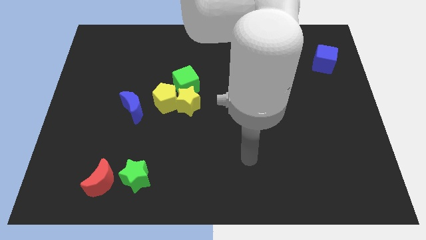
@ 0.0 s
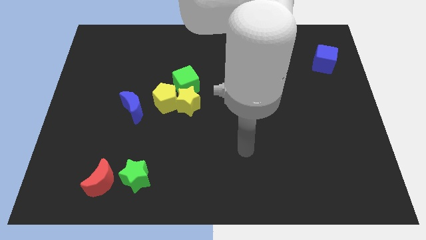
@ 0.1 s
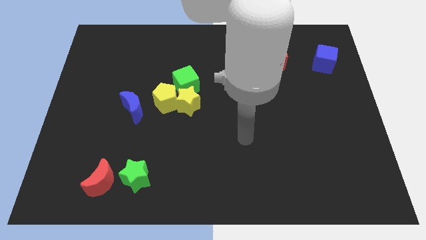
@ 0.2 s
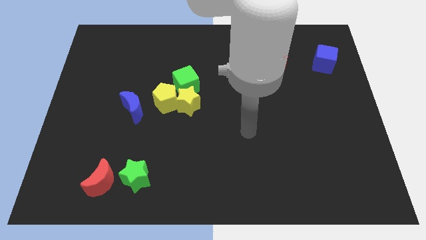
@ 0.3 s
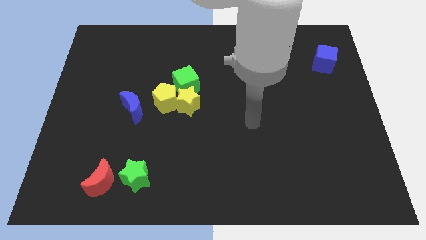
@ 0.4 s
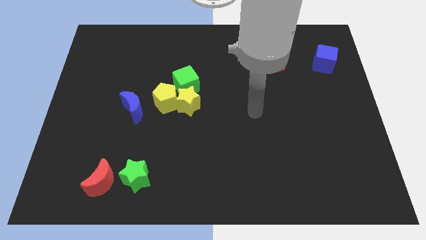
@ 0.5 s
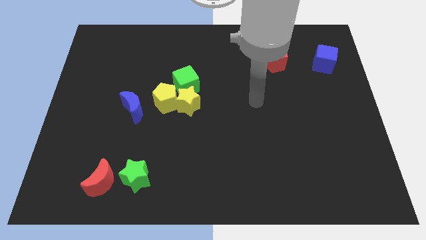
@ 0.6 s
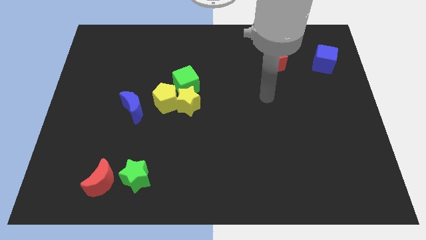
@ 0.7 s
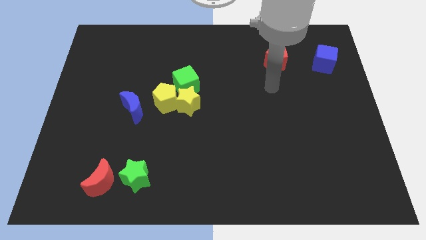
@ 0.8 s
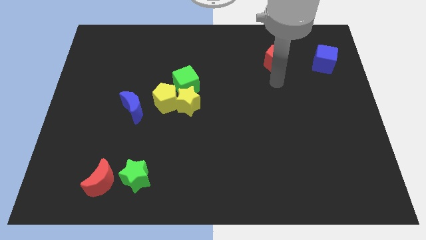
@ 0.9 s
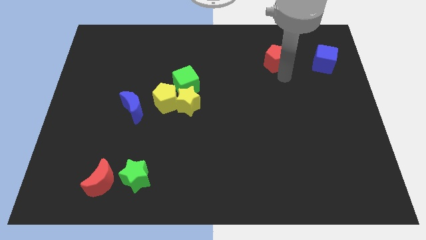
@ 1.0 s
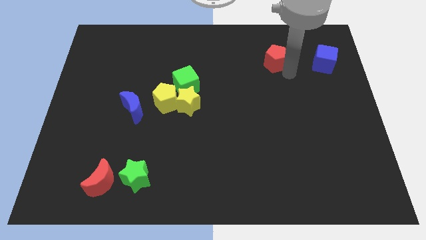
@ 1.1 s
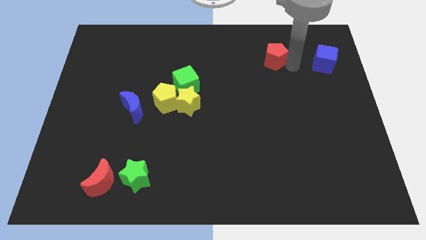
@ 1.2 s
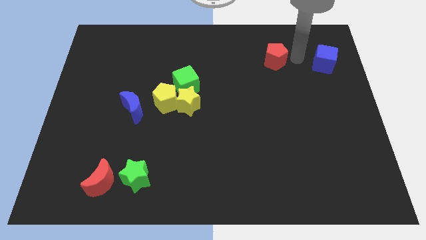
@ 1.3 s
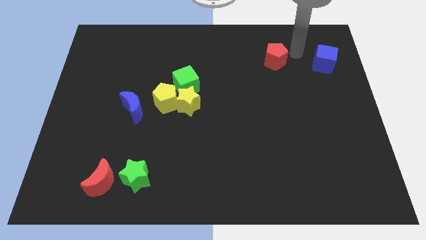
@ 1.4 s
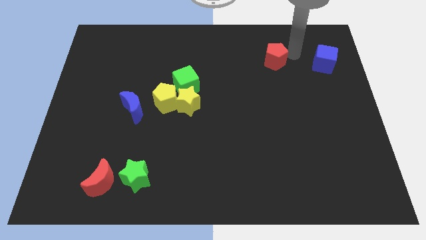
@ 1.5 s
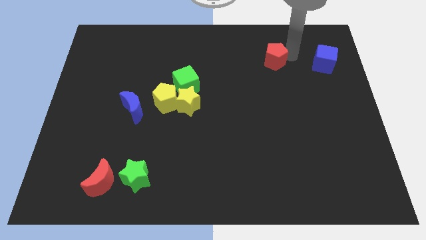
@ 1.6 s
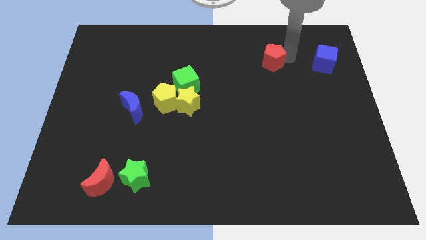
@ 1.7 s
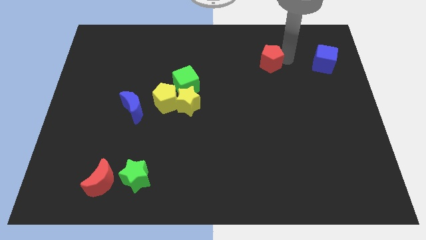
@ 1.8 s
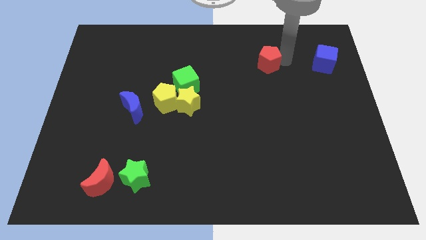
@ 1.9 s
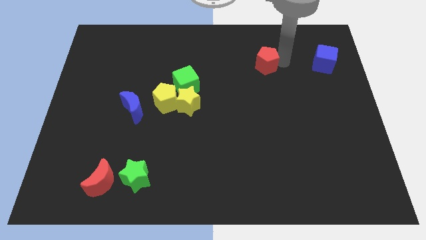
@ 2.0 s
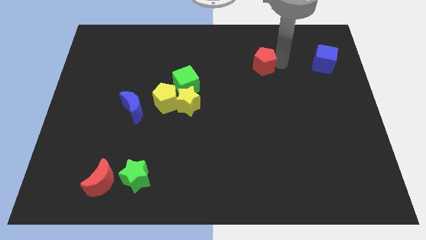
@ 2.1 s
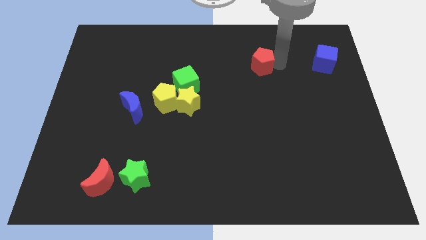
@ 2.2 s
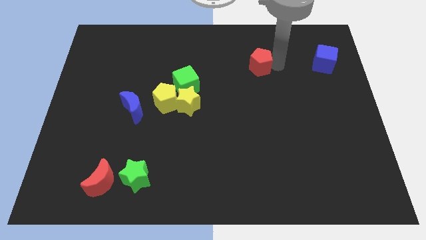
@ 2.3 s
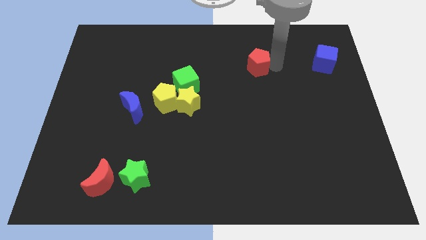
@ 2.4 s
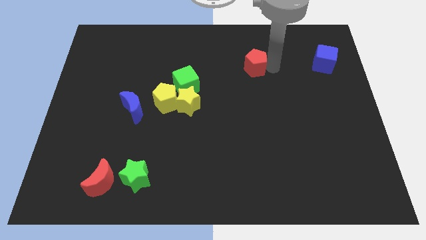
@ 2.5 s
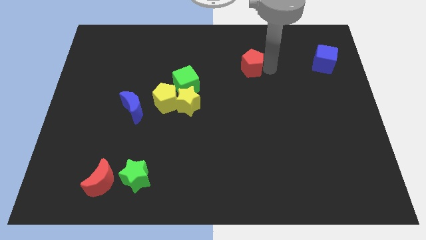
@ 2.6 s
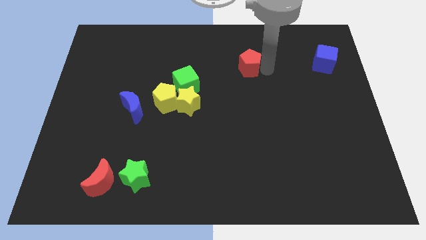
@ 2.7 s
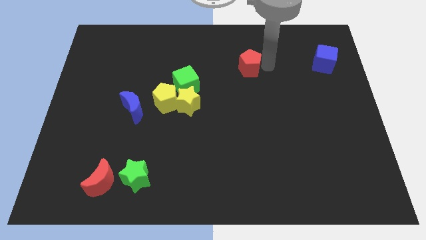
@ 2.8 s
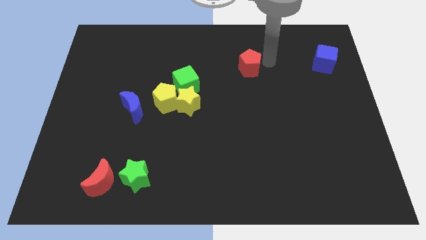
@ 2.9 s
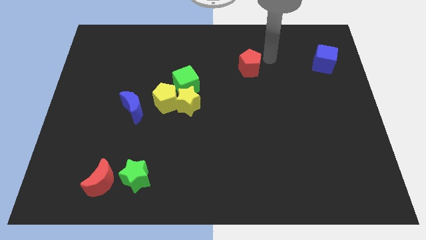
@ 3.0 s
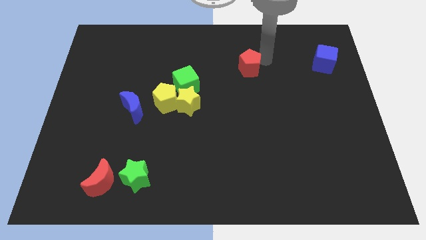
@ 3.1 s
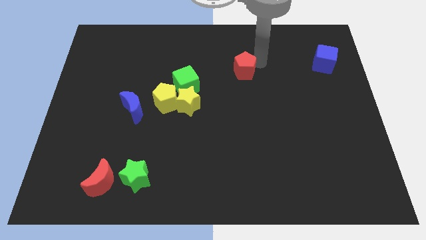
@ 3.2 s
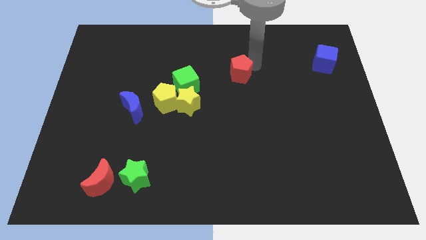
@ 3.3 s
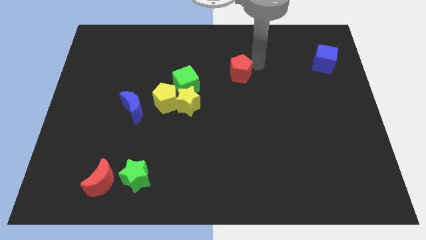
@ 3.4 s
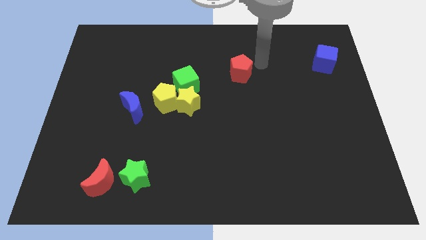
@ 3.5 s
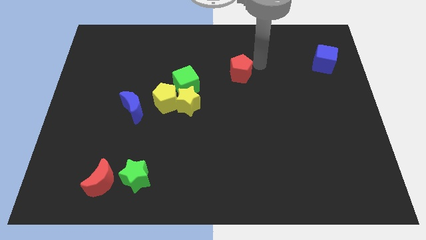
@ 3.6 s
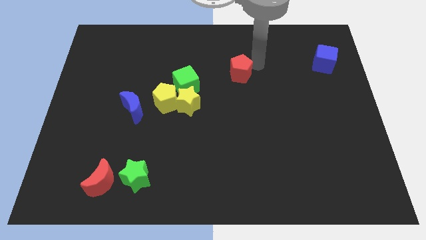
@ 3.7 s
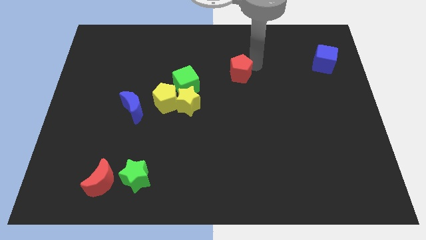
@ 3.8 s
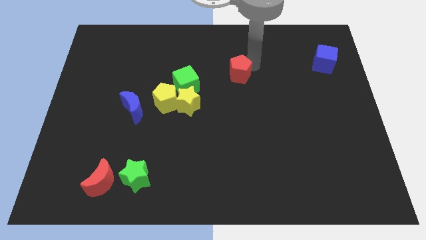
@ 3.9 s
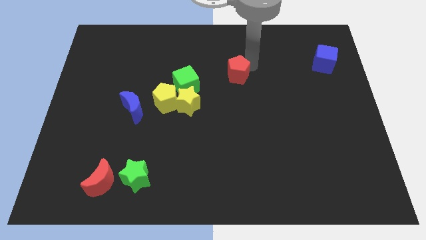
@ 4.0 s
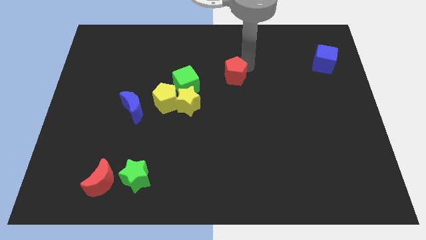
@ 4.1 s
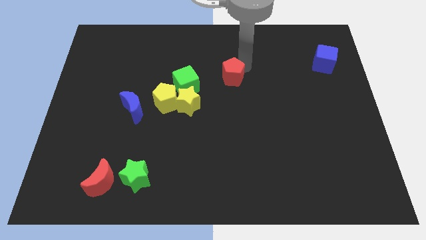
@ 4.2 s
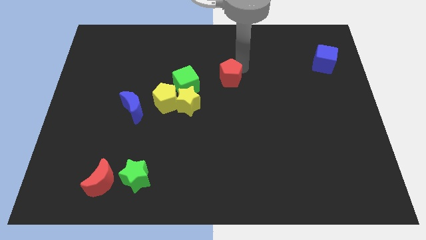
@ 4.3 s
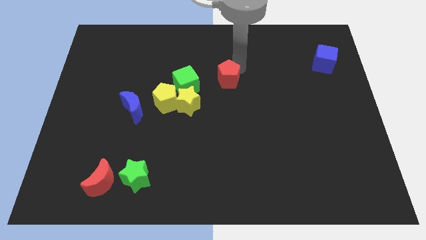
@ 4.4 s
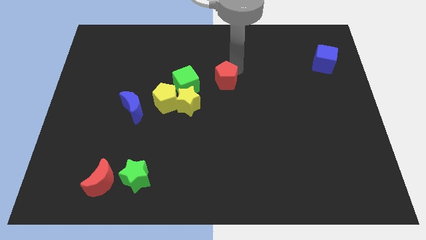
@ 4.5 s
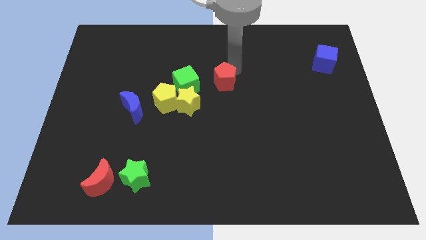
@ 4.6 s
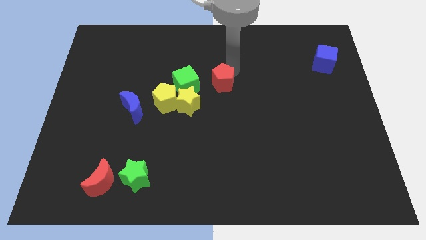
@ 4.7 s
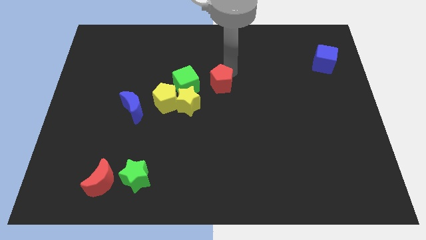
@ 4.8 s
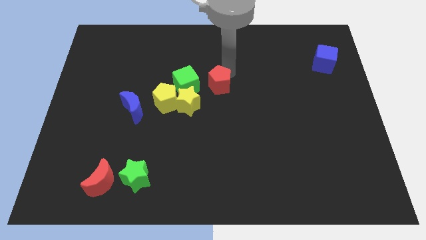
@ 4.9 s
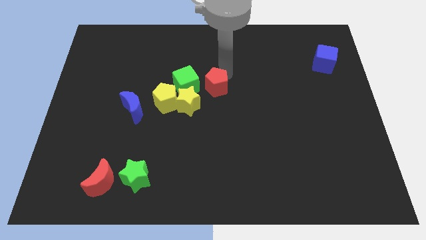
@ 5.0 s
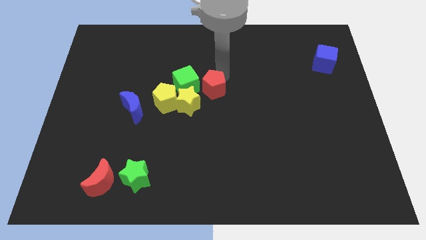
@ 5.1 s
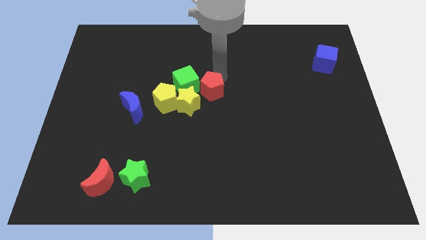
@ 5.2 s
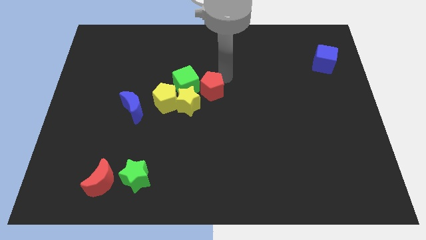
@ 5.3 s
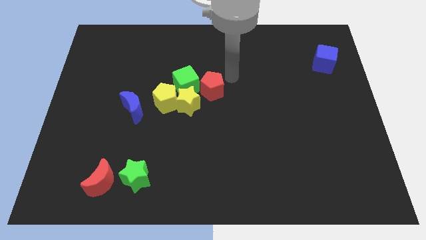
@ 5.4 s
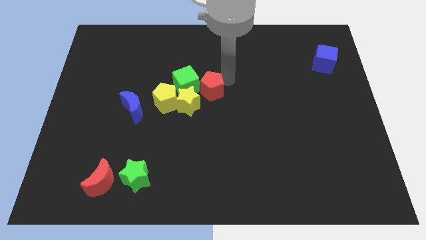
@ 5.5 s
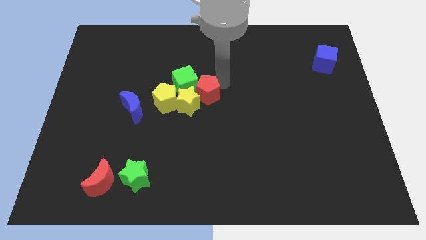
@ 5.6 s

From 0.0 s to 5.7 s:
push the red pentagon to the yellow star

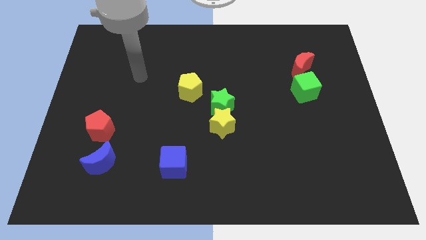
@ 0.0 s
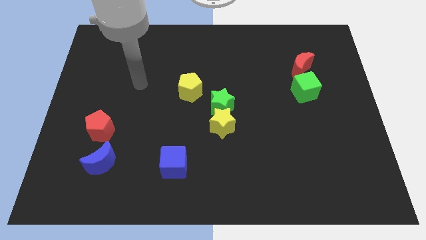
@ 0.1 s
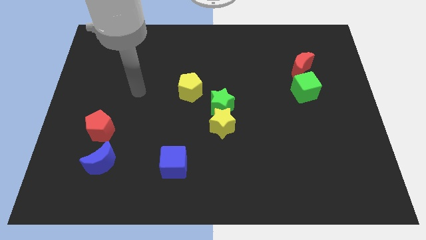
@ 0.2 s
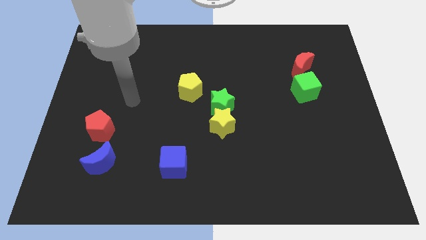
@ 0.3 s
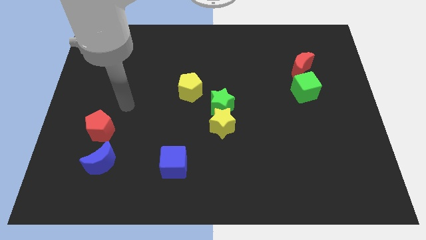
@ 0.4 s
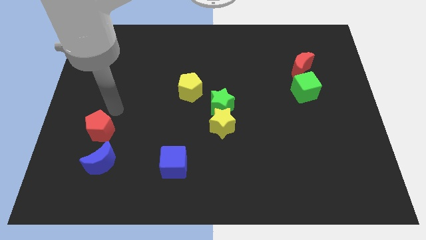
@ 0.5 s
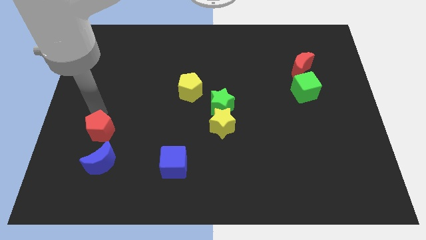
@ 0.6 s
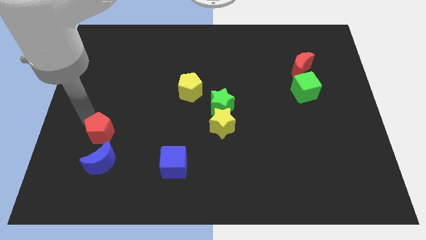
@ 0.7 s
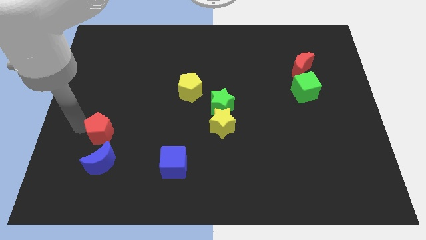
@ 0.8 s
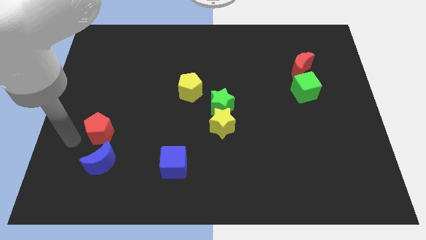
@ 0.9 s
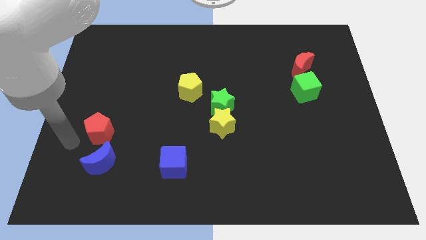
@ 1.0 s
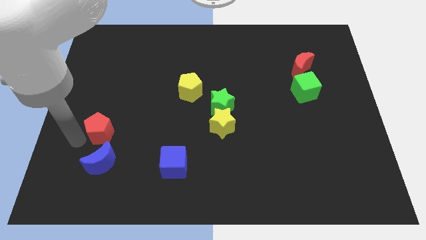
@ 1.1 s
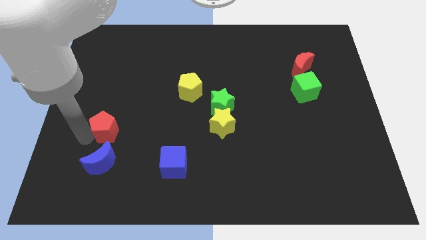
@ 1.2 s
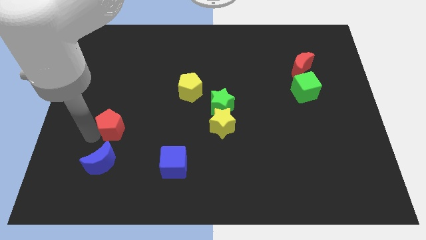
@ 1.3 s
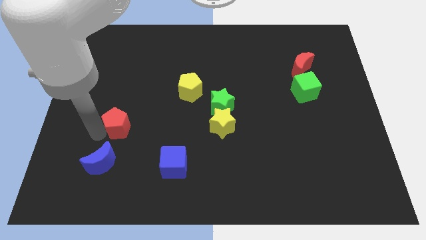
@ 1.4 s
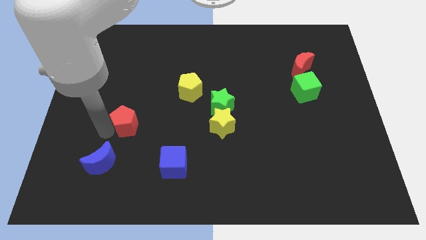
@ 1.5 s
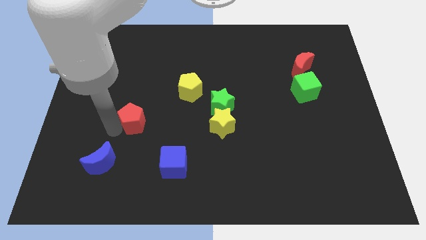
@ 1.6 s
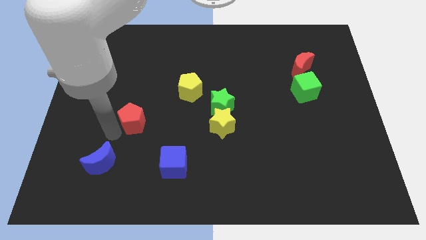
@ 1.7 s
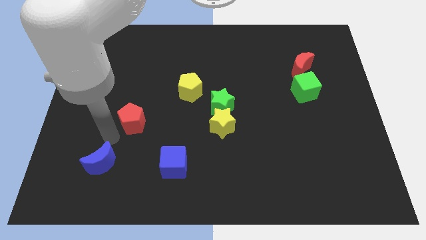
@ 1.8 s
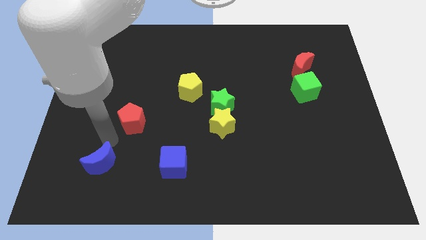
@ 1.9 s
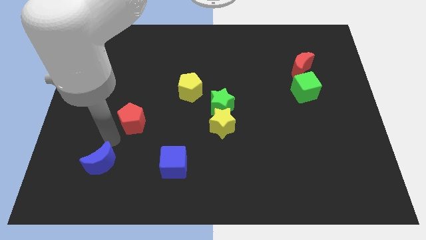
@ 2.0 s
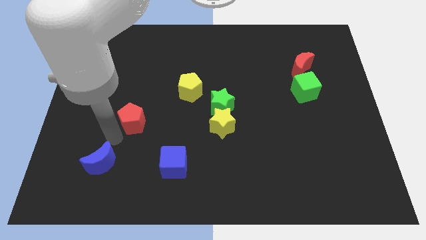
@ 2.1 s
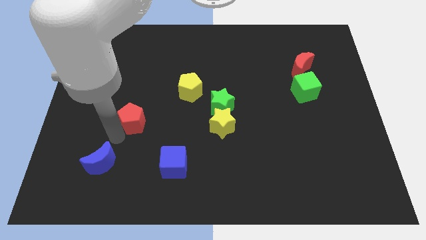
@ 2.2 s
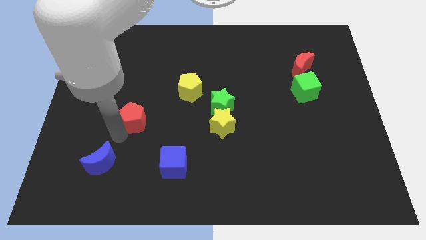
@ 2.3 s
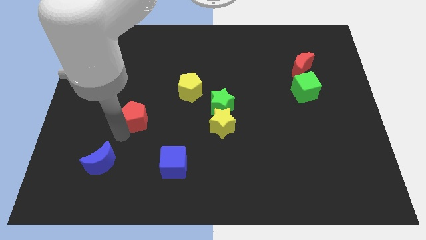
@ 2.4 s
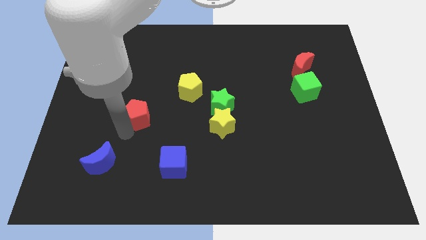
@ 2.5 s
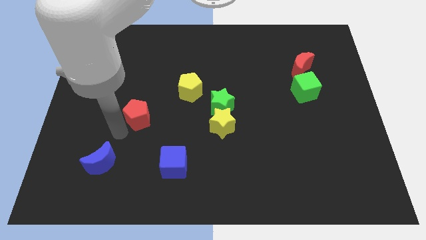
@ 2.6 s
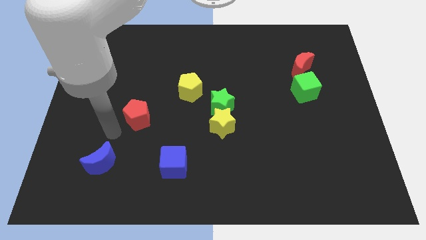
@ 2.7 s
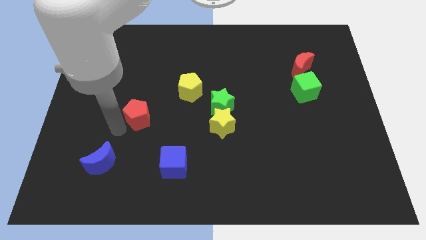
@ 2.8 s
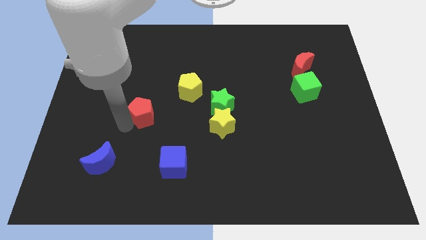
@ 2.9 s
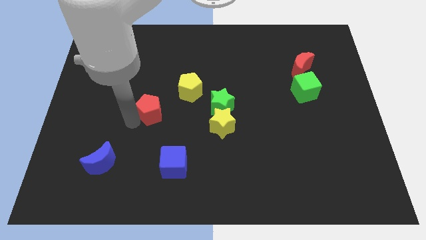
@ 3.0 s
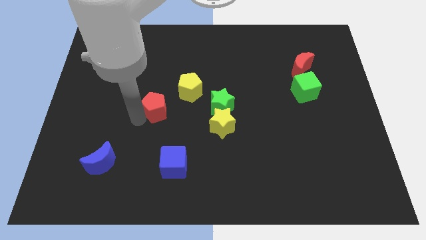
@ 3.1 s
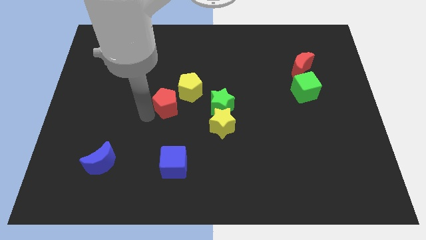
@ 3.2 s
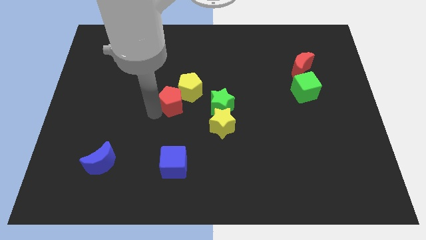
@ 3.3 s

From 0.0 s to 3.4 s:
slide the red pentagon close to the yellow pentagon
